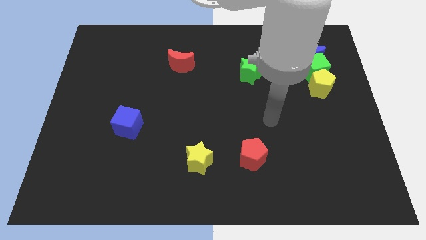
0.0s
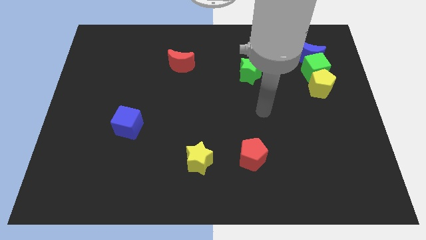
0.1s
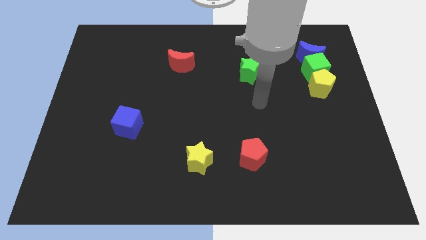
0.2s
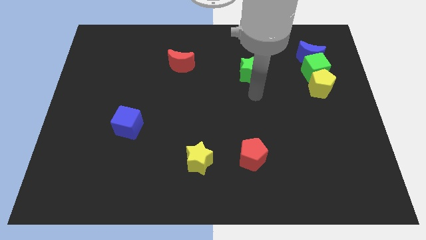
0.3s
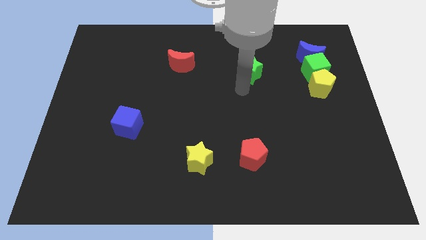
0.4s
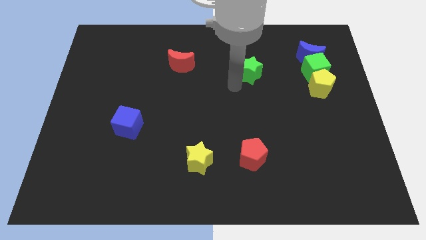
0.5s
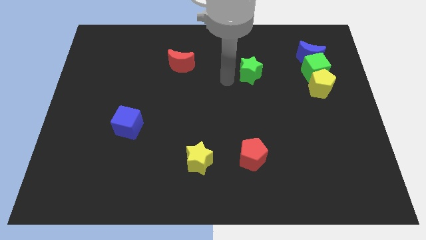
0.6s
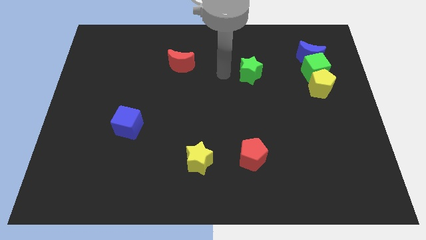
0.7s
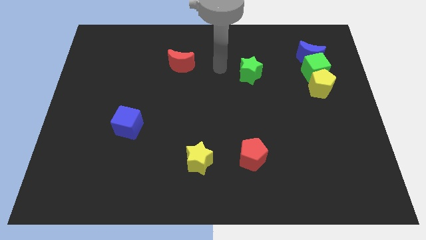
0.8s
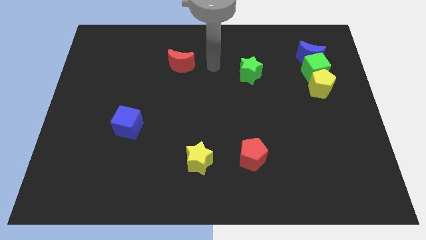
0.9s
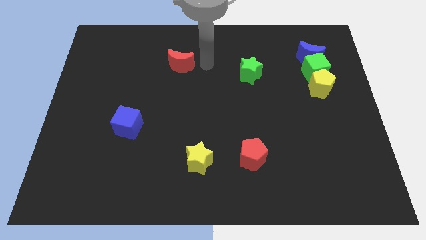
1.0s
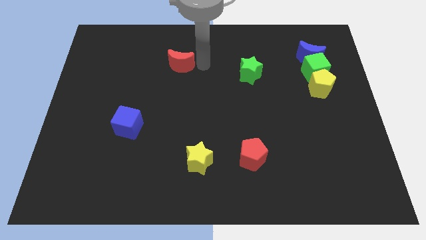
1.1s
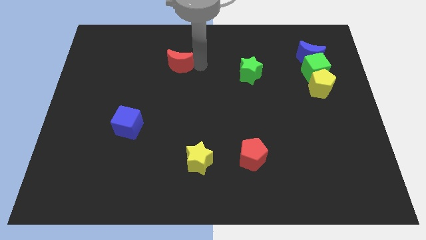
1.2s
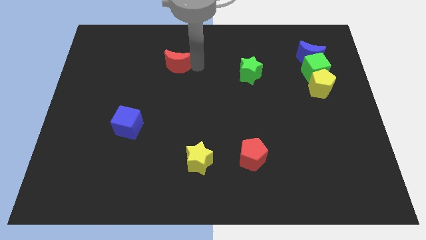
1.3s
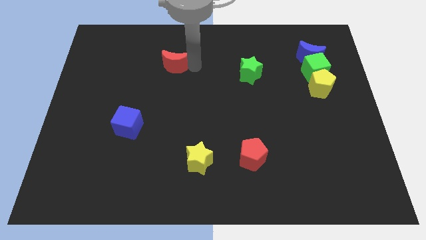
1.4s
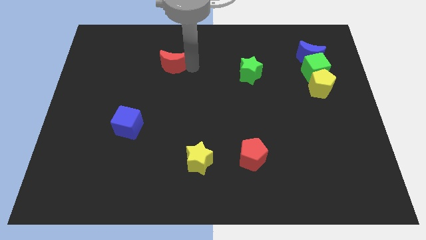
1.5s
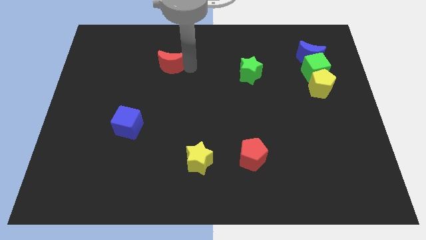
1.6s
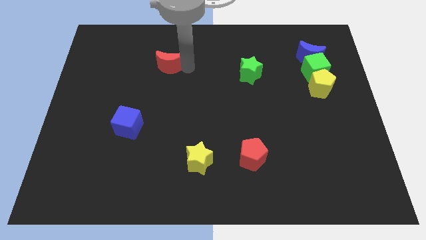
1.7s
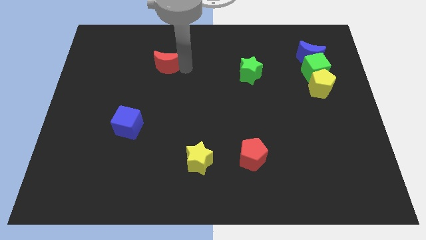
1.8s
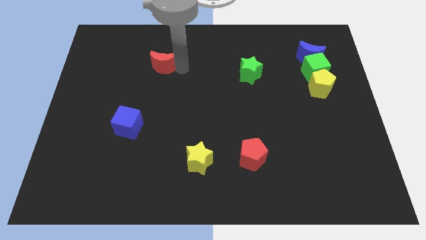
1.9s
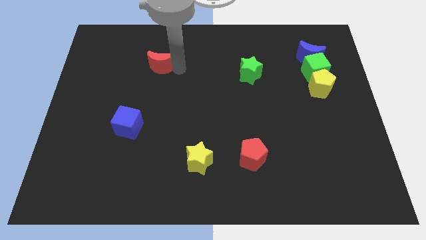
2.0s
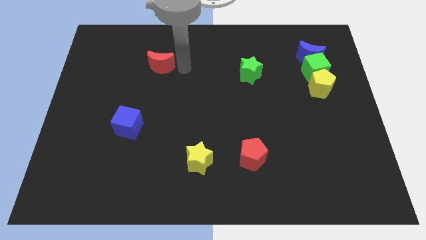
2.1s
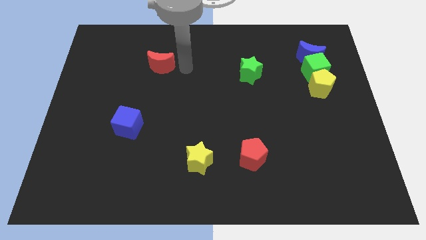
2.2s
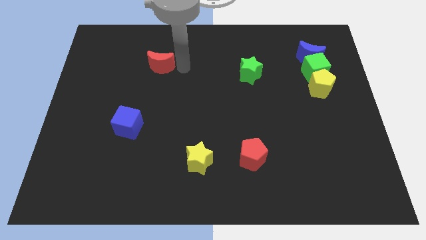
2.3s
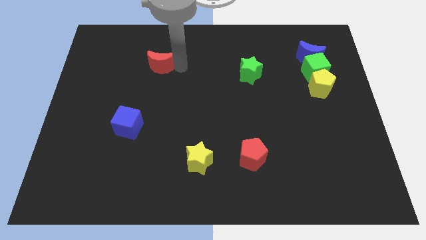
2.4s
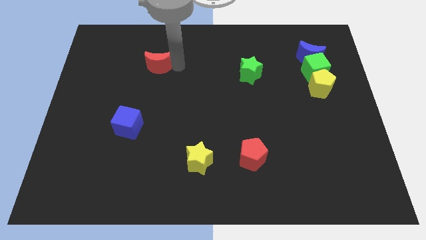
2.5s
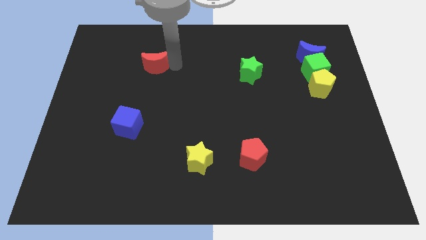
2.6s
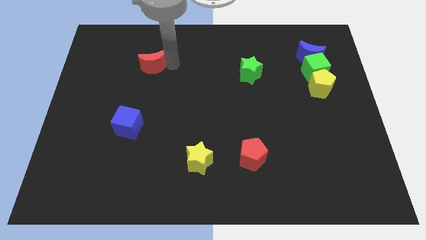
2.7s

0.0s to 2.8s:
push the red moon to the left slightly

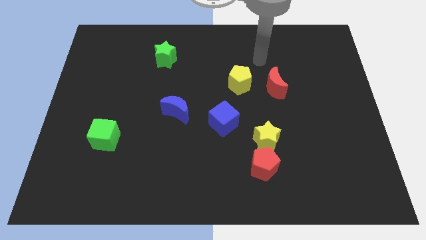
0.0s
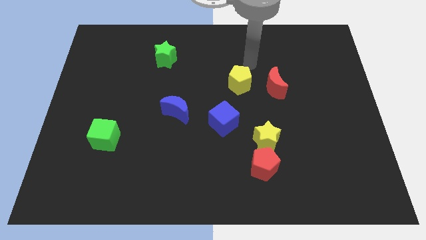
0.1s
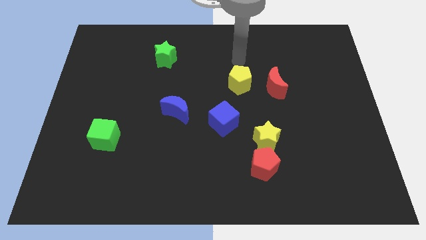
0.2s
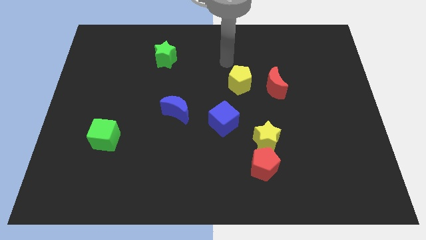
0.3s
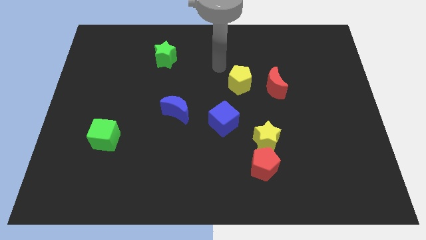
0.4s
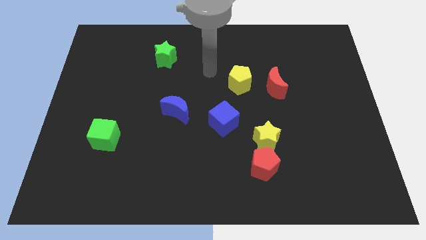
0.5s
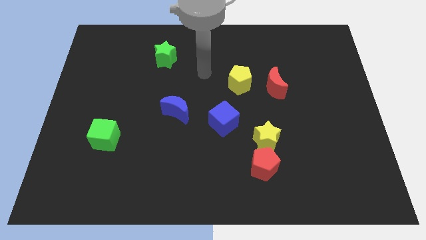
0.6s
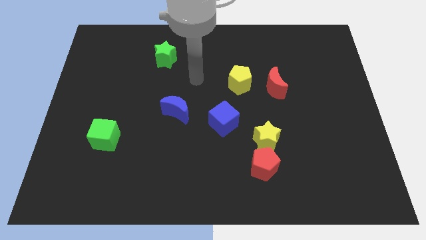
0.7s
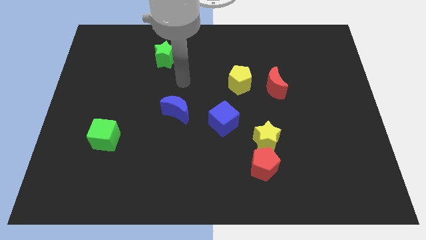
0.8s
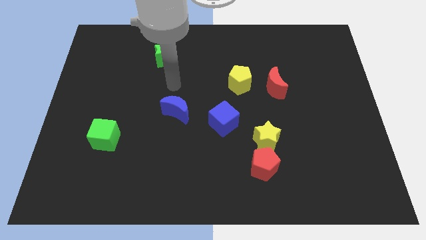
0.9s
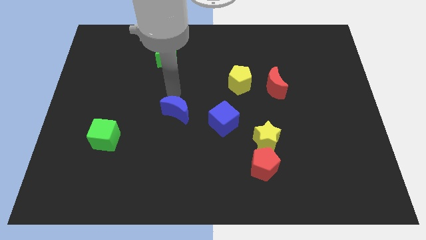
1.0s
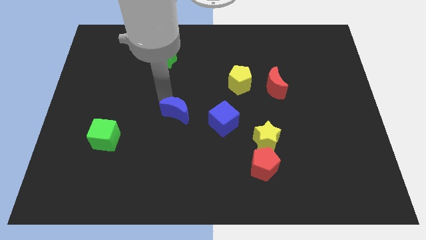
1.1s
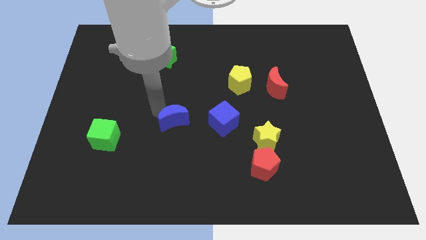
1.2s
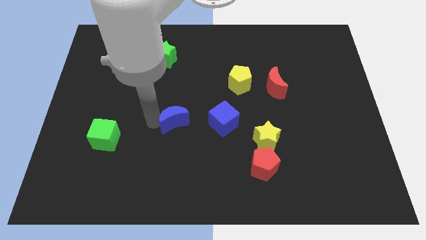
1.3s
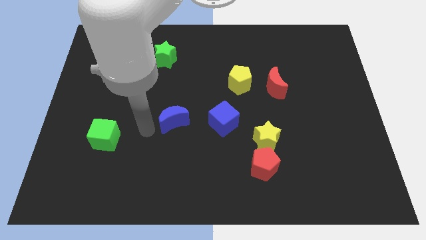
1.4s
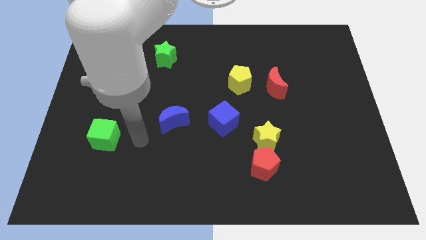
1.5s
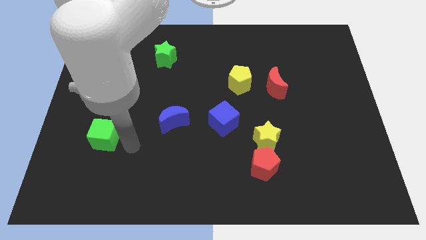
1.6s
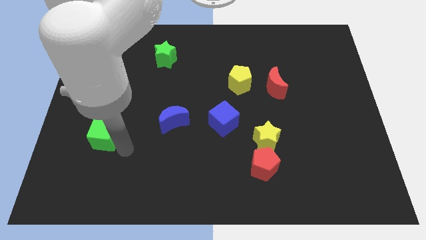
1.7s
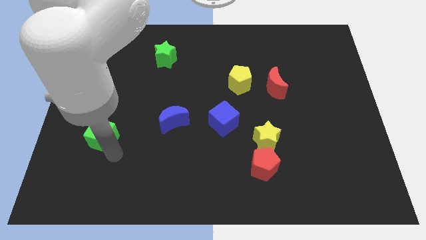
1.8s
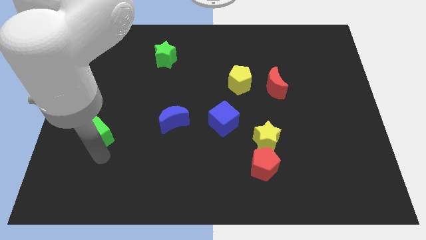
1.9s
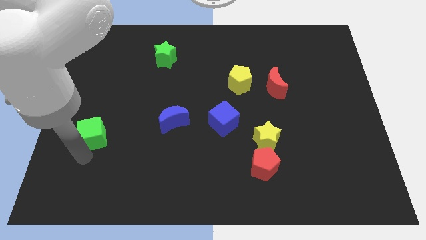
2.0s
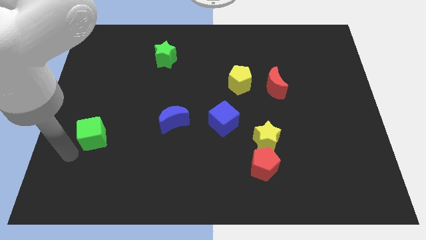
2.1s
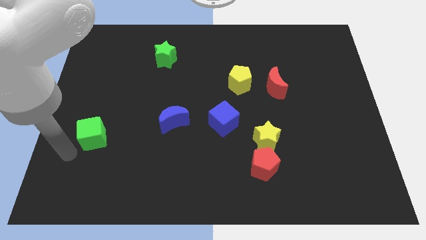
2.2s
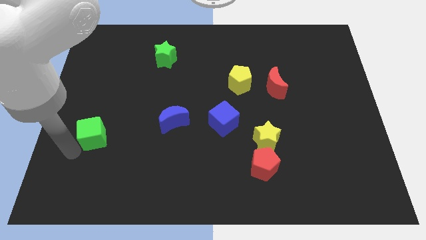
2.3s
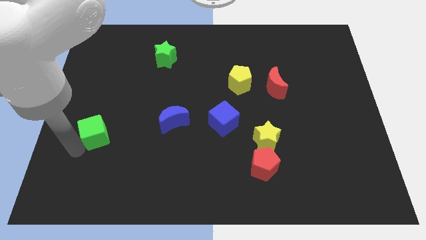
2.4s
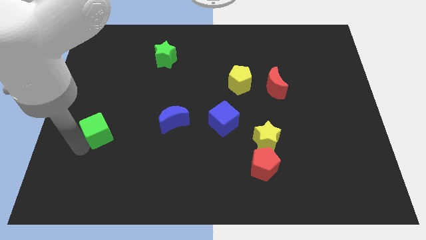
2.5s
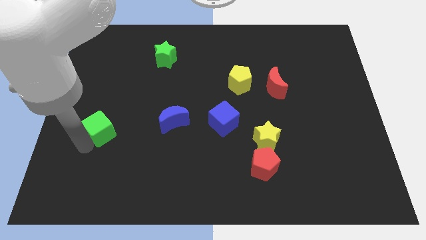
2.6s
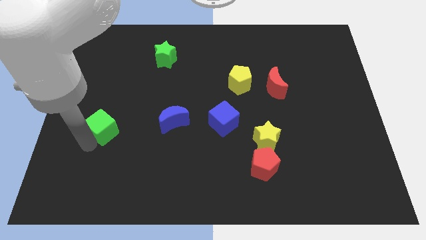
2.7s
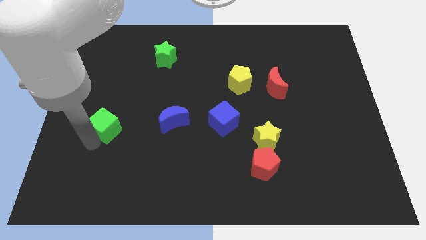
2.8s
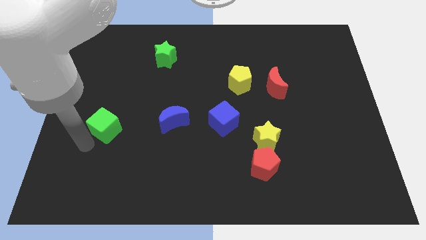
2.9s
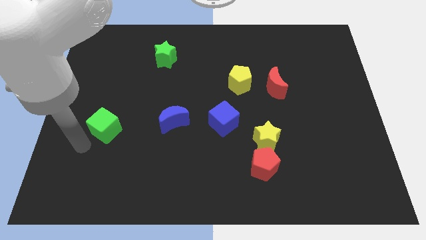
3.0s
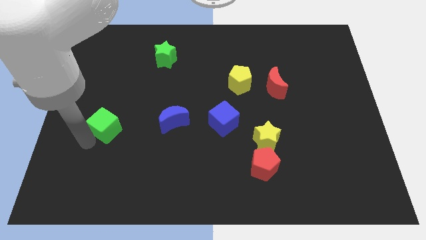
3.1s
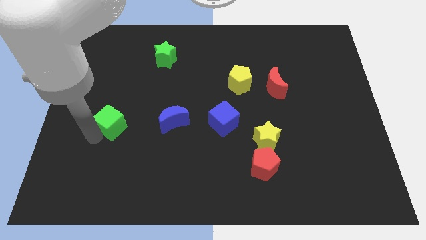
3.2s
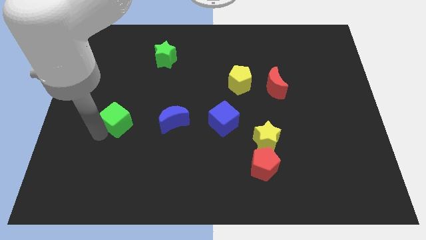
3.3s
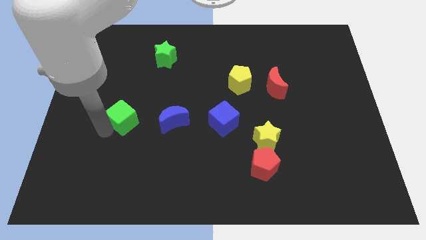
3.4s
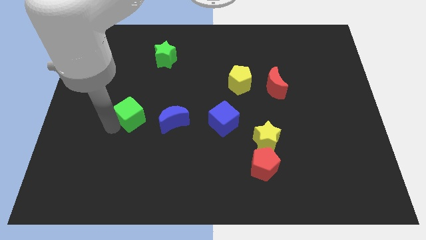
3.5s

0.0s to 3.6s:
slide the green cube somewhat up and right diagonally

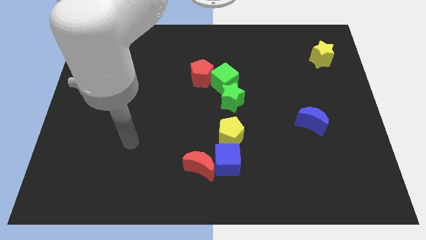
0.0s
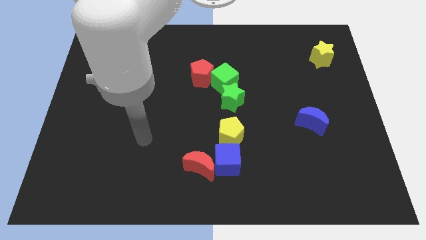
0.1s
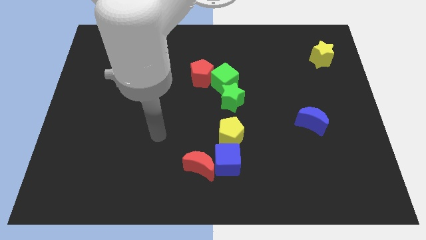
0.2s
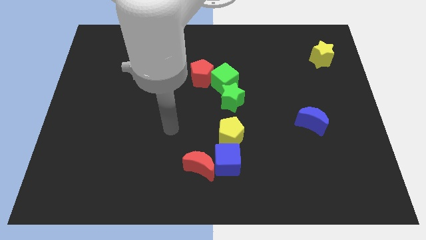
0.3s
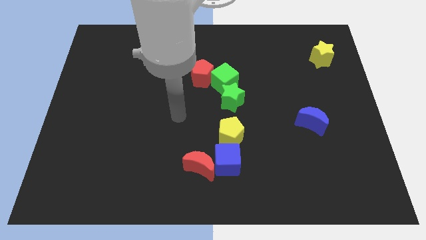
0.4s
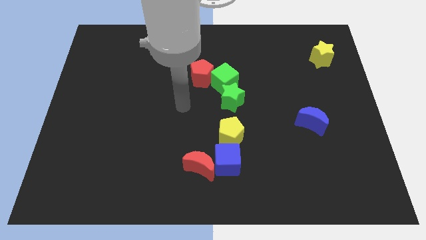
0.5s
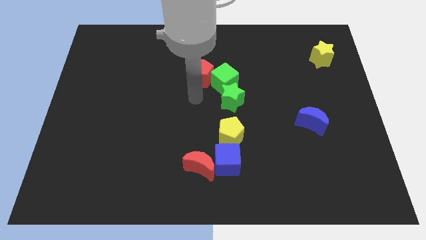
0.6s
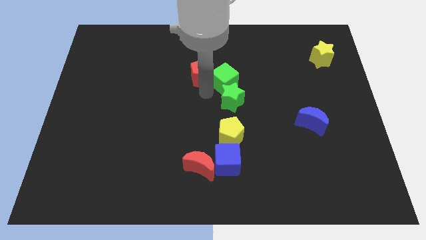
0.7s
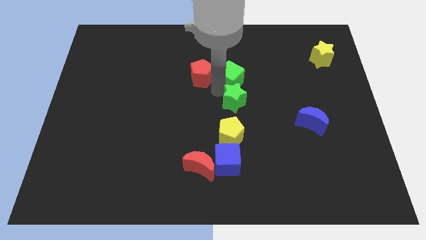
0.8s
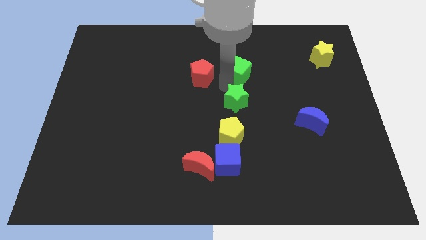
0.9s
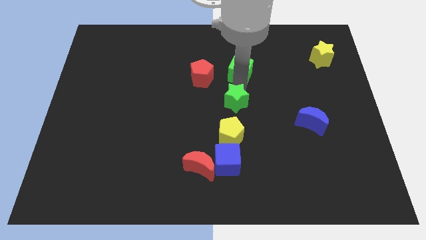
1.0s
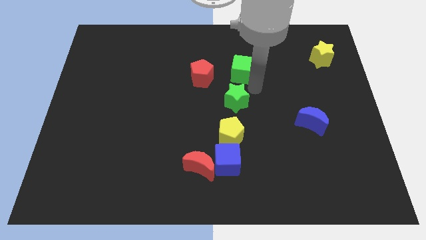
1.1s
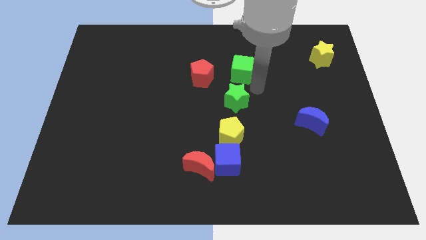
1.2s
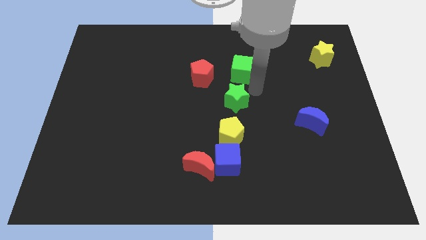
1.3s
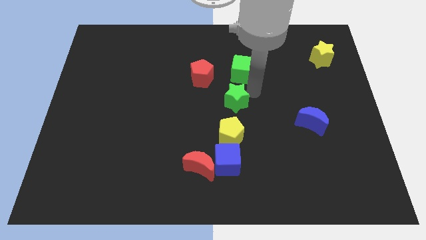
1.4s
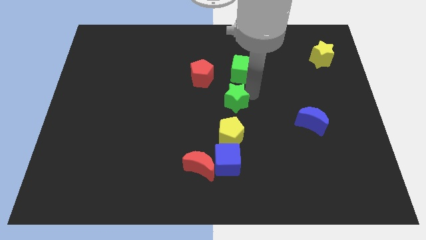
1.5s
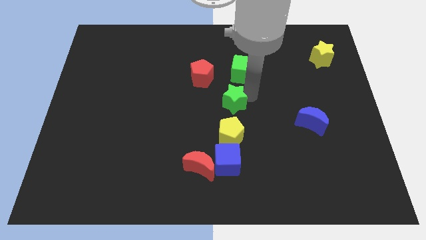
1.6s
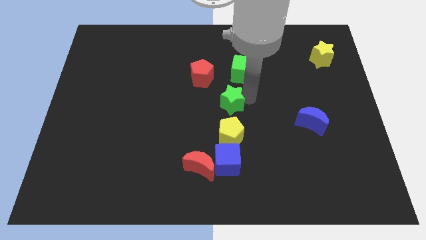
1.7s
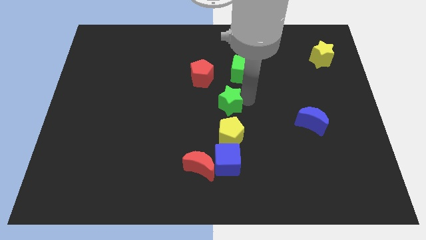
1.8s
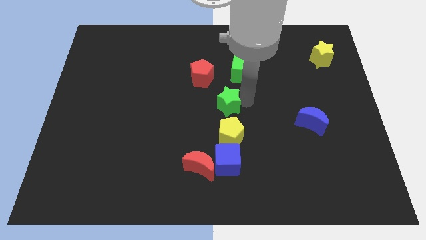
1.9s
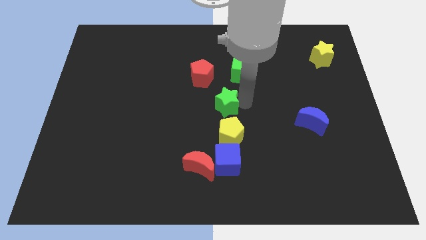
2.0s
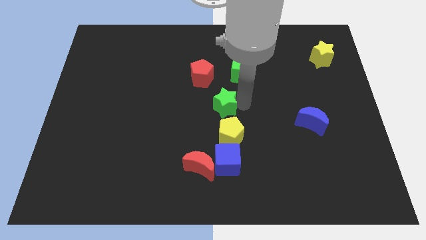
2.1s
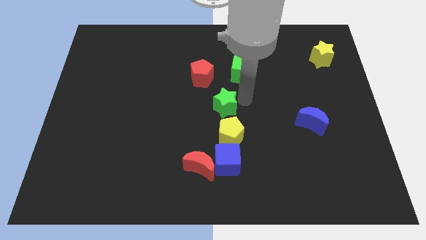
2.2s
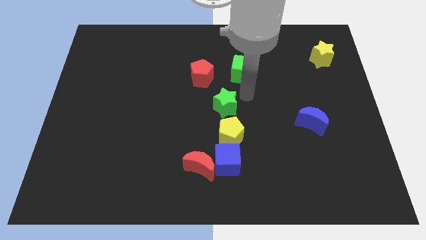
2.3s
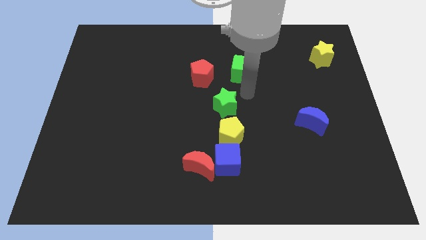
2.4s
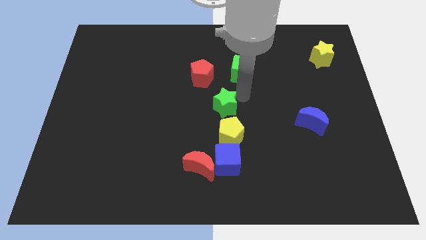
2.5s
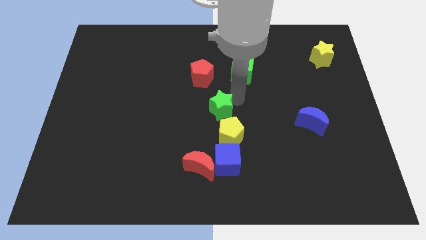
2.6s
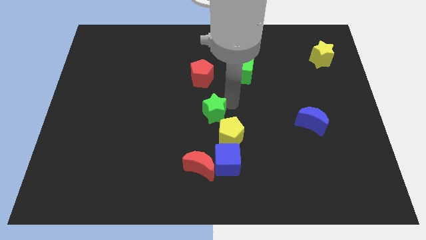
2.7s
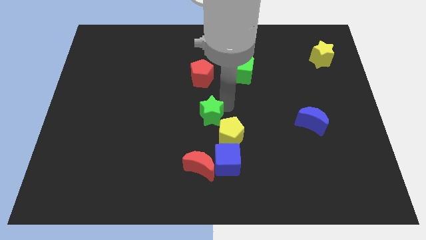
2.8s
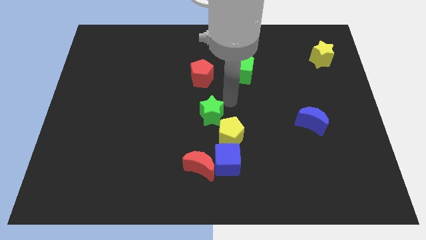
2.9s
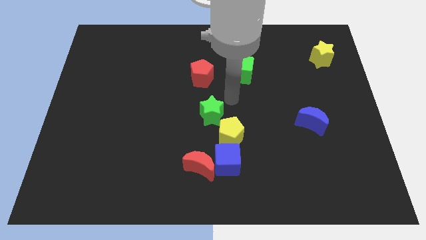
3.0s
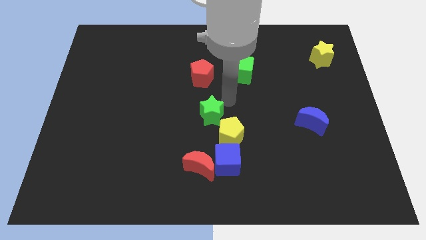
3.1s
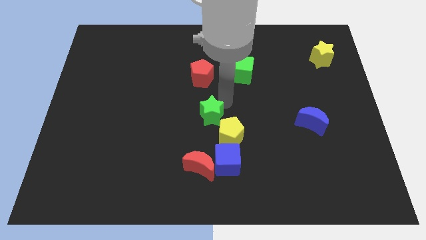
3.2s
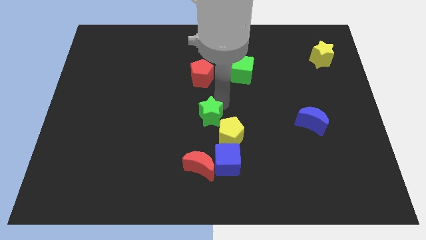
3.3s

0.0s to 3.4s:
slightly slide the green star diagonally downwards and left
